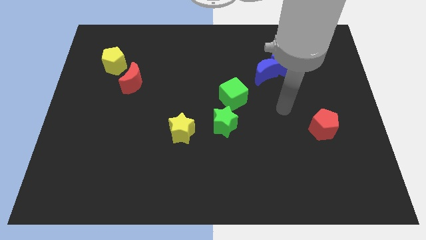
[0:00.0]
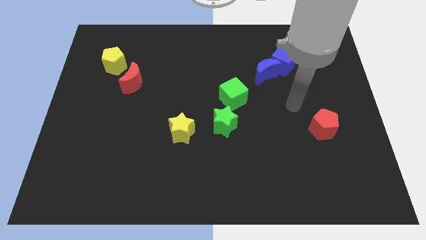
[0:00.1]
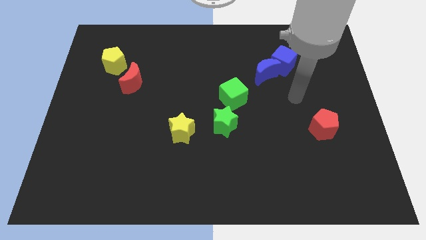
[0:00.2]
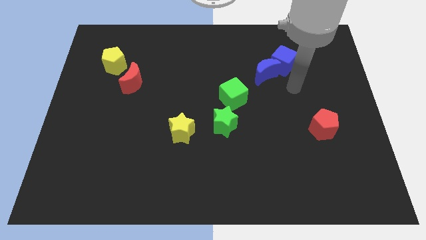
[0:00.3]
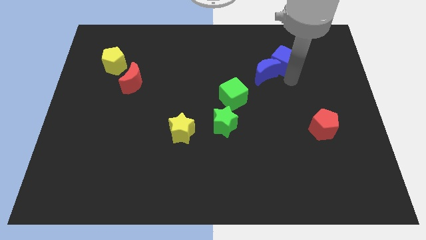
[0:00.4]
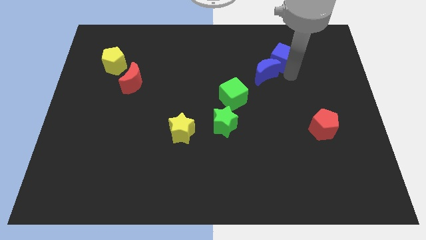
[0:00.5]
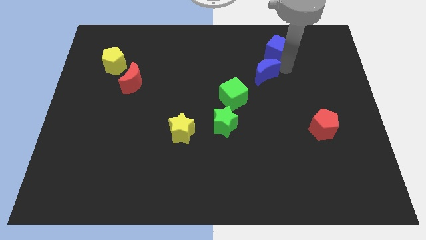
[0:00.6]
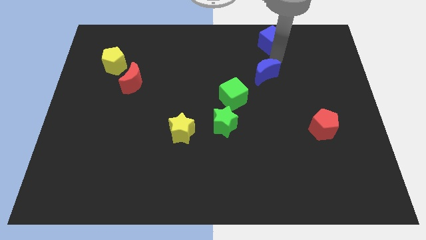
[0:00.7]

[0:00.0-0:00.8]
move the blue moon away from the blue cube

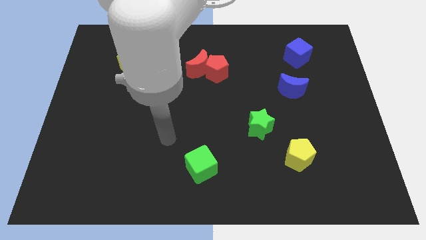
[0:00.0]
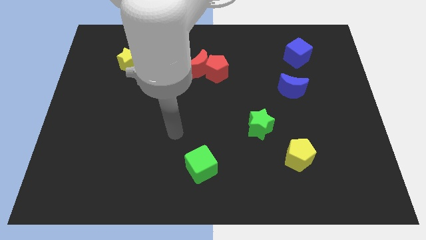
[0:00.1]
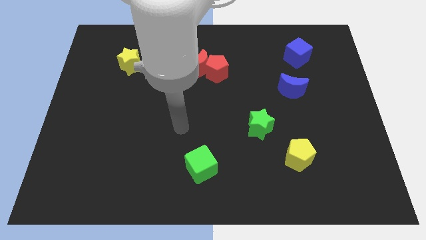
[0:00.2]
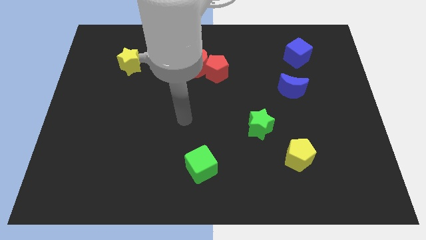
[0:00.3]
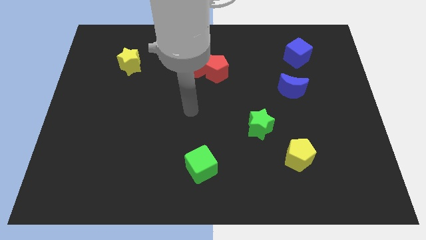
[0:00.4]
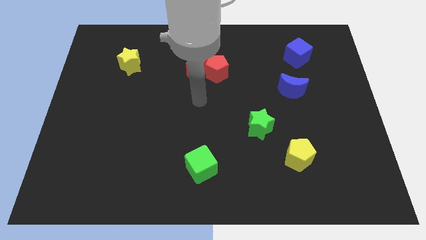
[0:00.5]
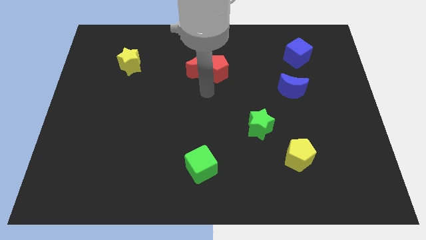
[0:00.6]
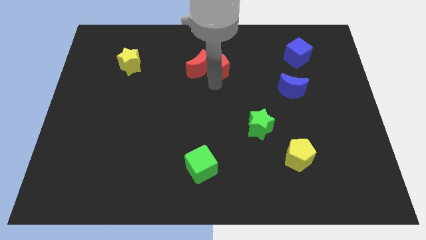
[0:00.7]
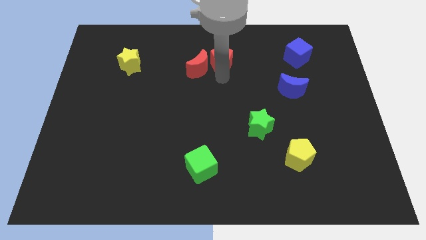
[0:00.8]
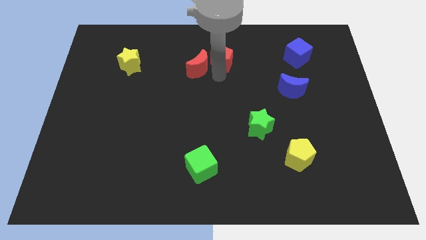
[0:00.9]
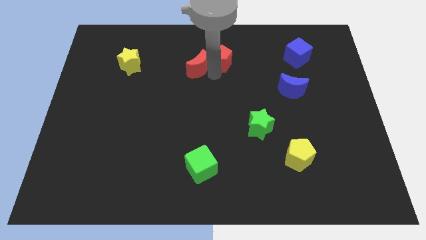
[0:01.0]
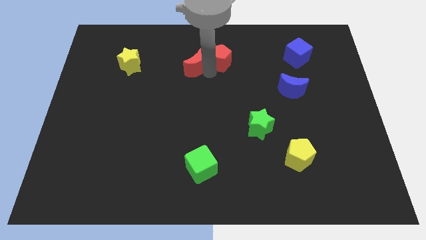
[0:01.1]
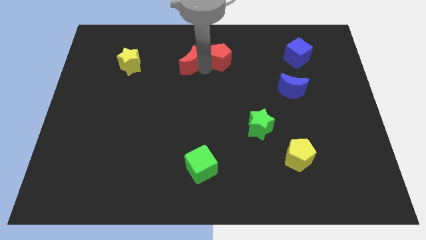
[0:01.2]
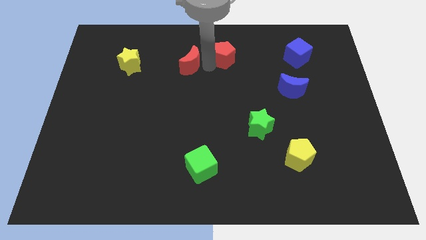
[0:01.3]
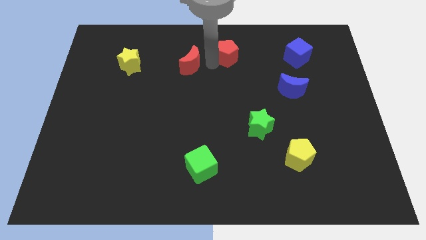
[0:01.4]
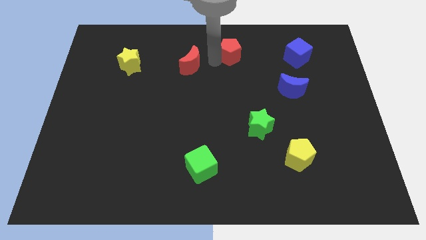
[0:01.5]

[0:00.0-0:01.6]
move the red moon away from the red pentagon

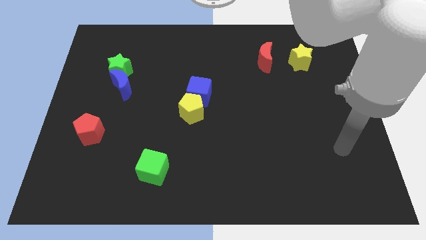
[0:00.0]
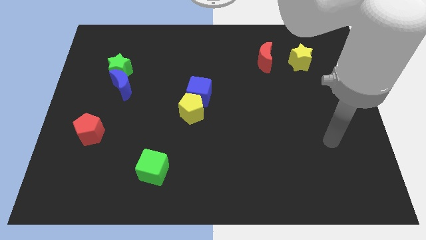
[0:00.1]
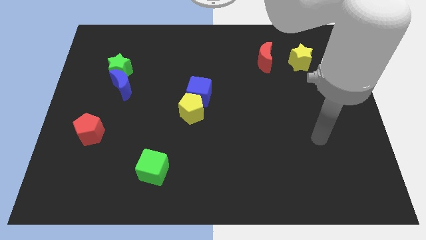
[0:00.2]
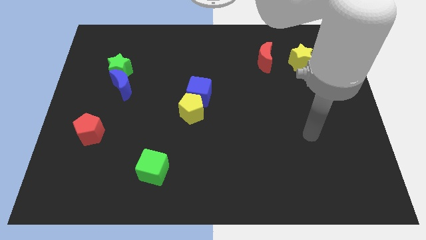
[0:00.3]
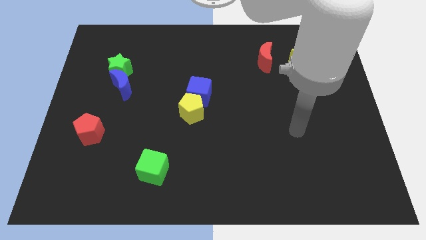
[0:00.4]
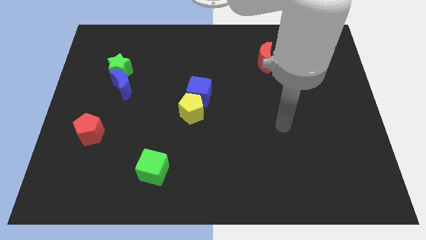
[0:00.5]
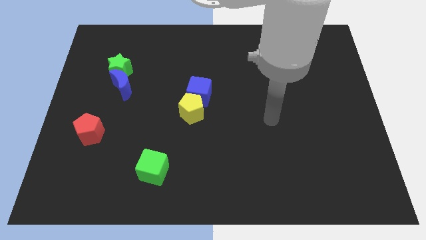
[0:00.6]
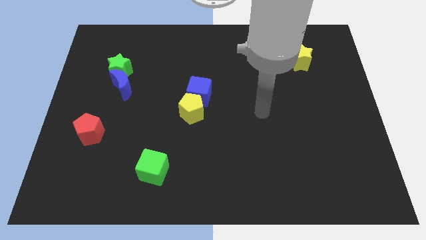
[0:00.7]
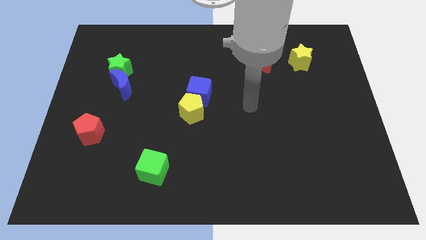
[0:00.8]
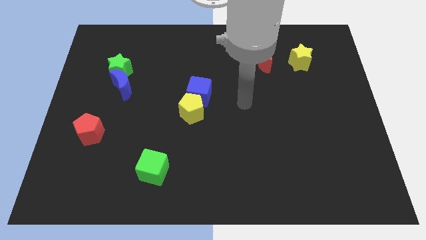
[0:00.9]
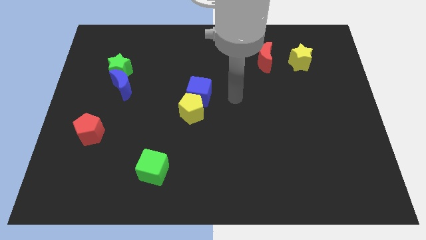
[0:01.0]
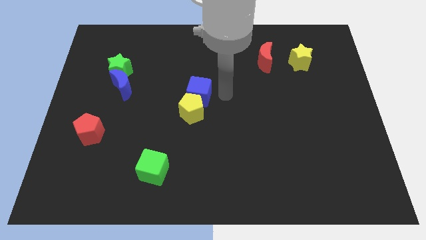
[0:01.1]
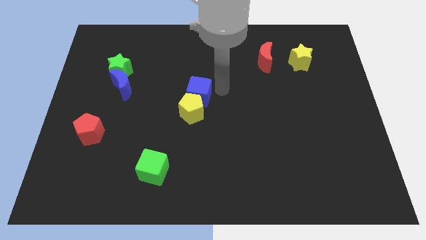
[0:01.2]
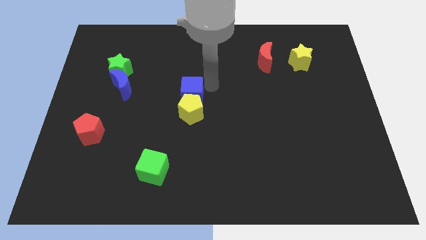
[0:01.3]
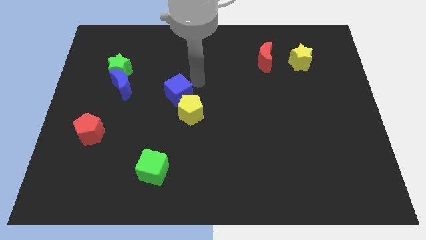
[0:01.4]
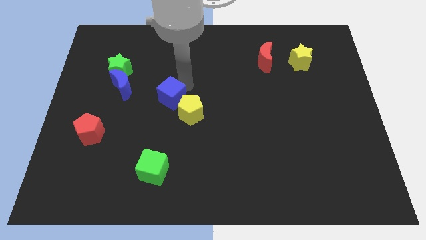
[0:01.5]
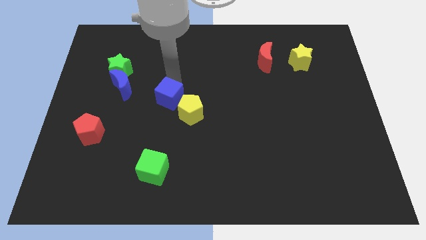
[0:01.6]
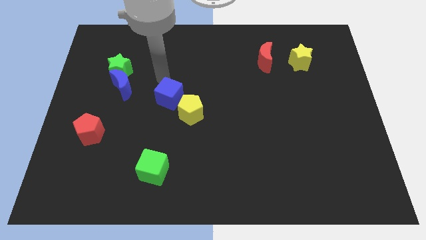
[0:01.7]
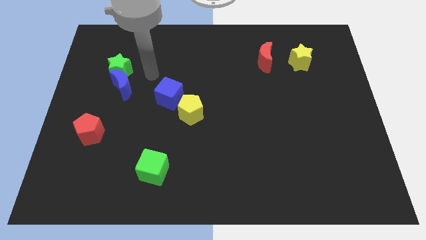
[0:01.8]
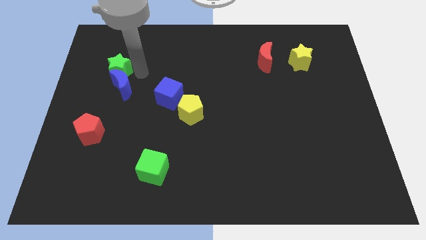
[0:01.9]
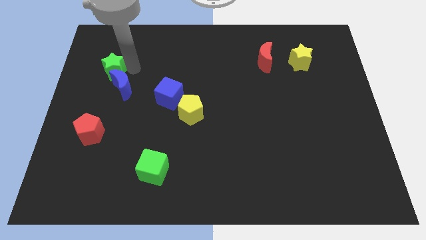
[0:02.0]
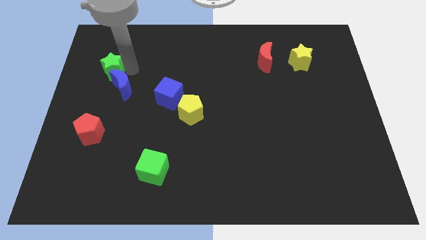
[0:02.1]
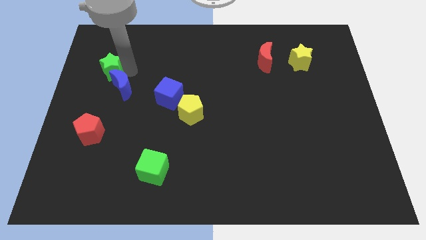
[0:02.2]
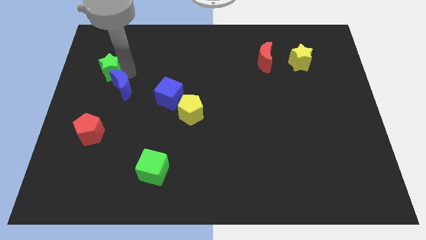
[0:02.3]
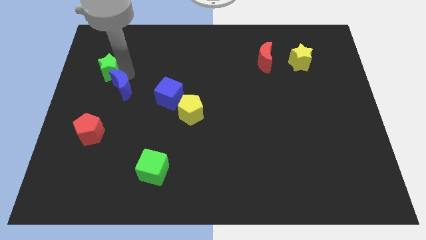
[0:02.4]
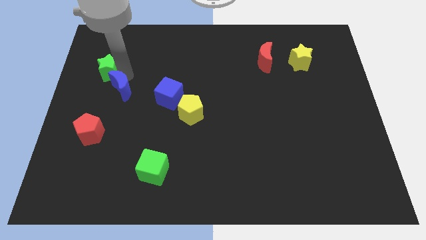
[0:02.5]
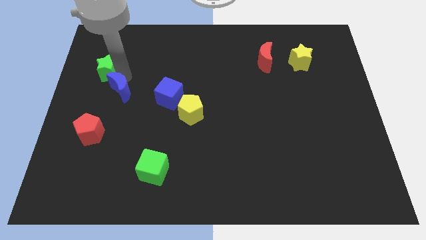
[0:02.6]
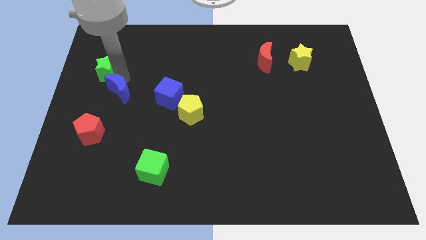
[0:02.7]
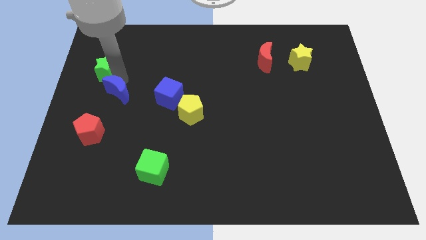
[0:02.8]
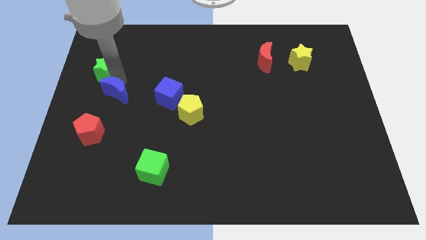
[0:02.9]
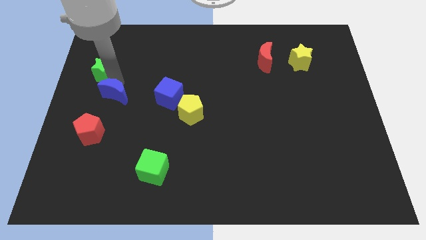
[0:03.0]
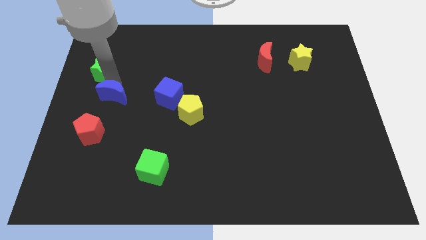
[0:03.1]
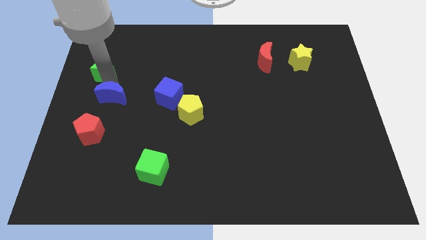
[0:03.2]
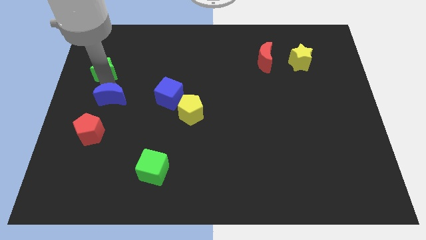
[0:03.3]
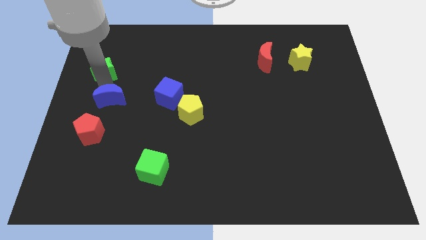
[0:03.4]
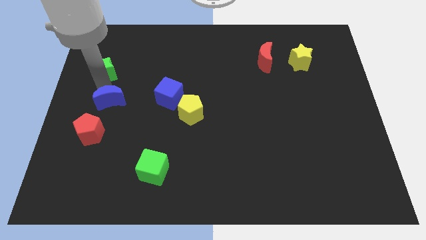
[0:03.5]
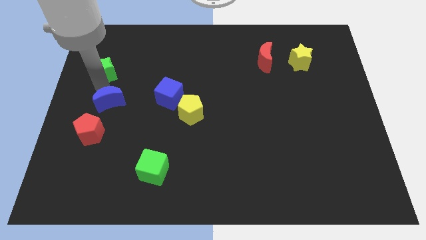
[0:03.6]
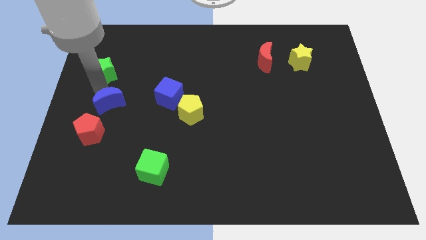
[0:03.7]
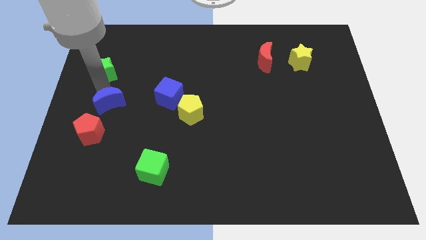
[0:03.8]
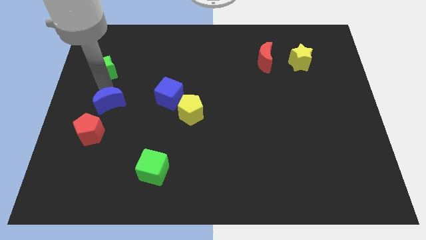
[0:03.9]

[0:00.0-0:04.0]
pull the blue moon apart from the green star

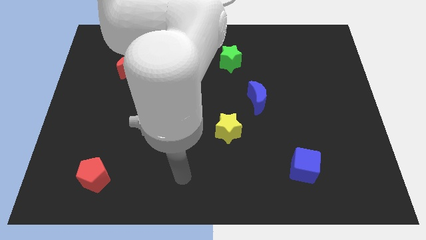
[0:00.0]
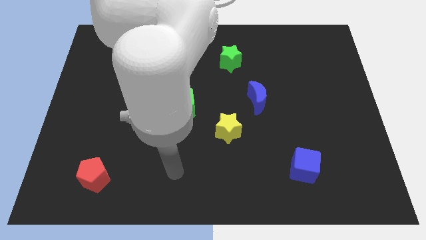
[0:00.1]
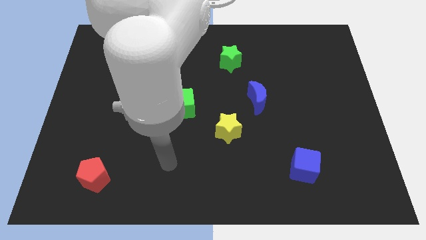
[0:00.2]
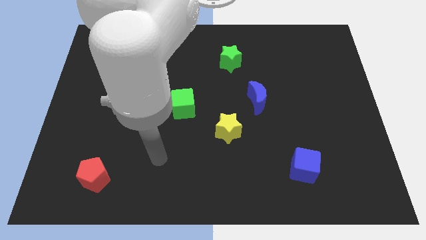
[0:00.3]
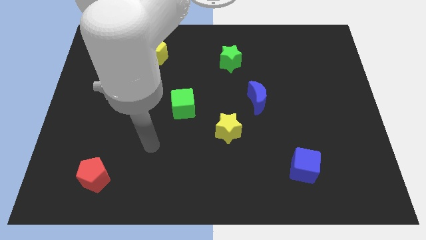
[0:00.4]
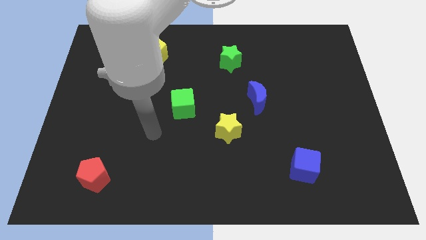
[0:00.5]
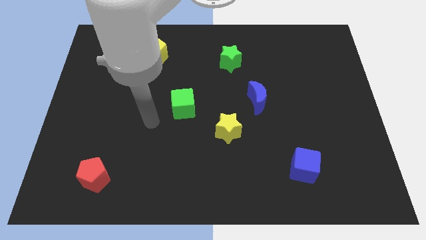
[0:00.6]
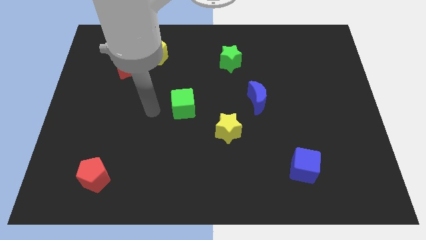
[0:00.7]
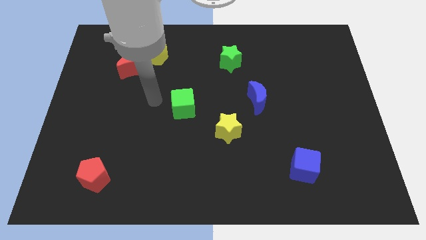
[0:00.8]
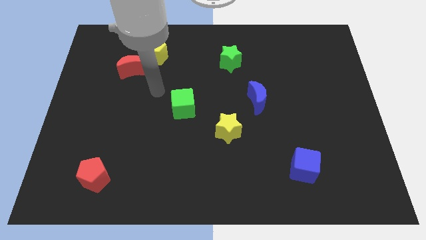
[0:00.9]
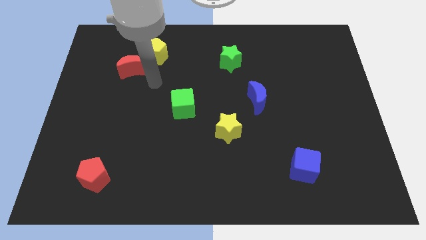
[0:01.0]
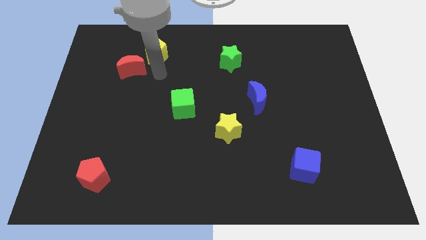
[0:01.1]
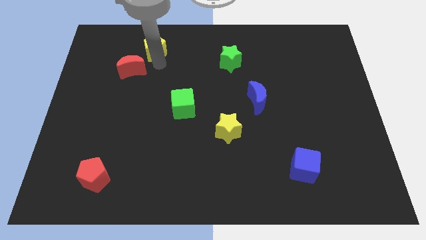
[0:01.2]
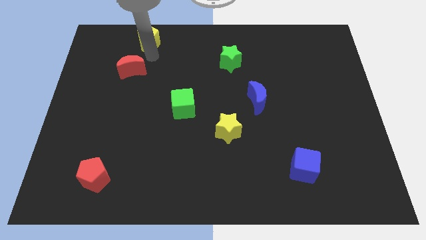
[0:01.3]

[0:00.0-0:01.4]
separate the red moon from the yellow pentagon

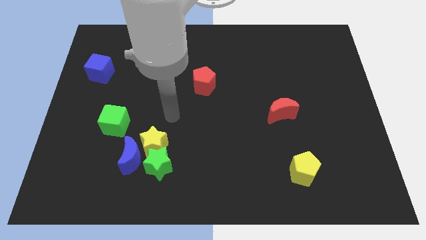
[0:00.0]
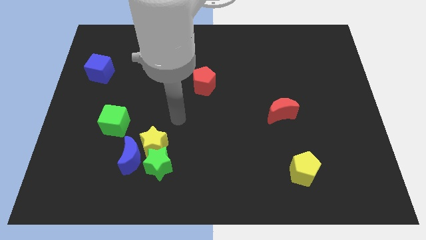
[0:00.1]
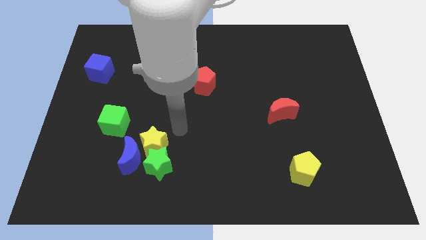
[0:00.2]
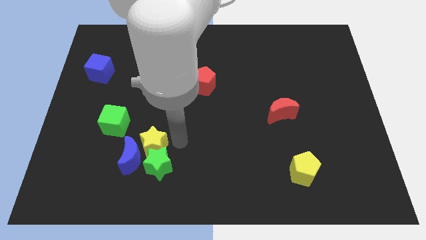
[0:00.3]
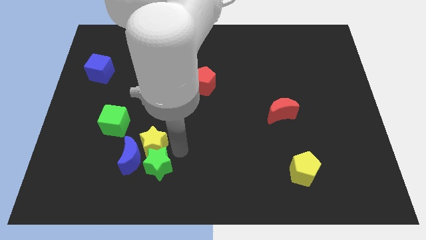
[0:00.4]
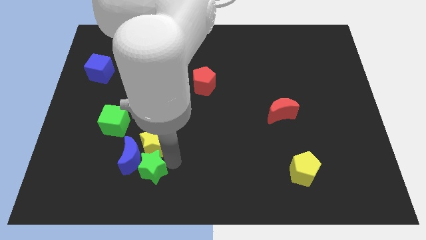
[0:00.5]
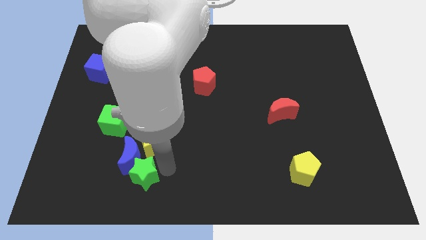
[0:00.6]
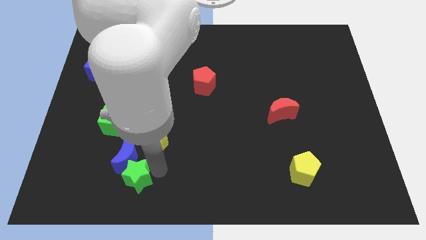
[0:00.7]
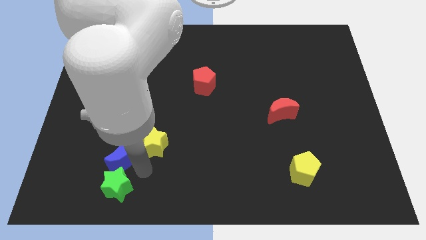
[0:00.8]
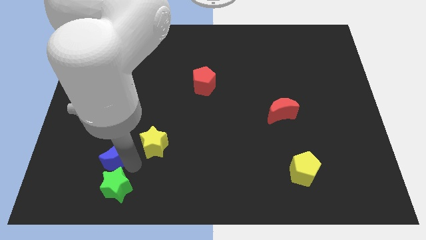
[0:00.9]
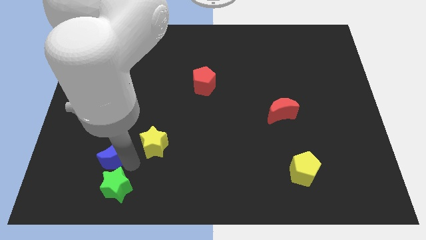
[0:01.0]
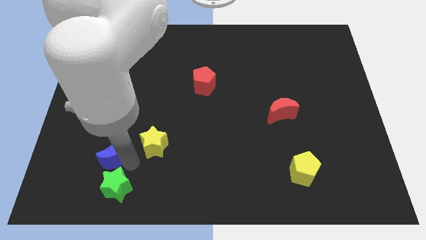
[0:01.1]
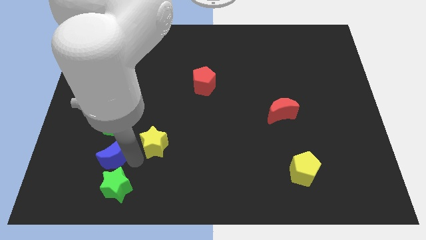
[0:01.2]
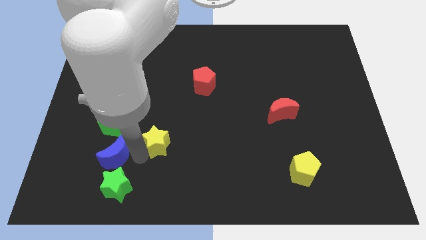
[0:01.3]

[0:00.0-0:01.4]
pull the yellow star apart from the green star and blue moon
